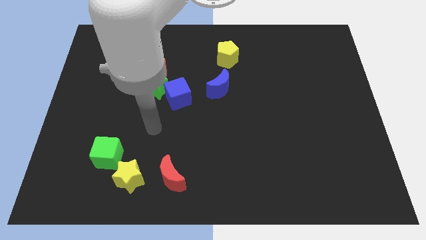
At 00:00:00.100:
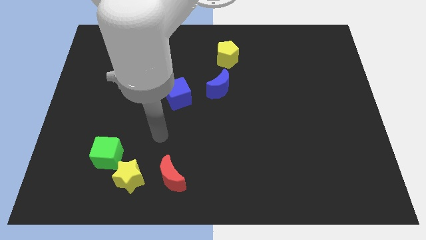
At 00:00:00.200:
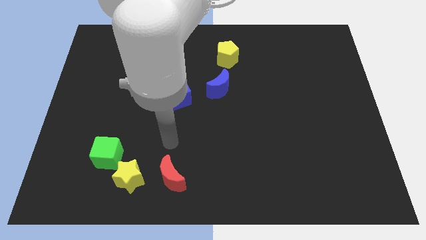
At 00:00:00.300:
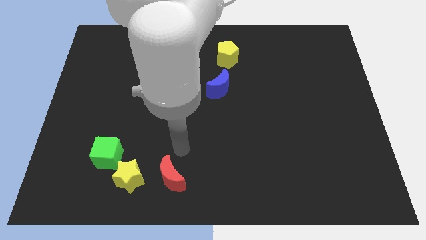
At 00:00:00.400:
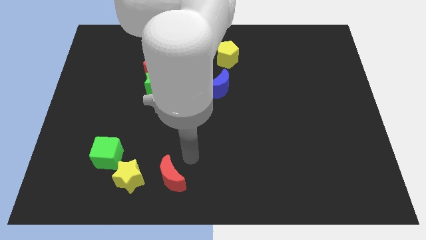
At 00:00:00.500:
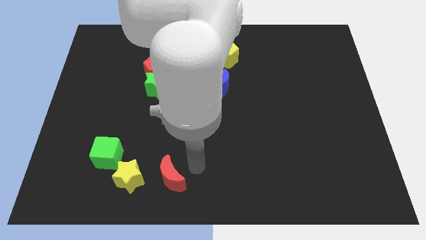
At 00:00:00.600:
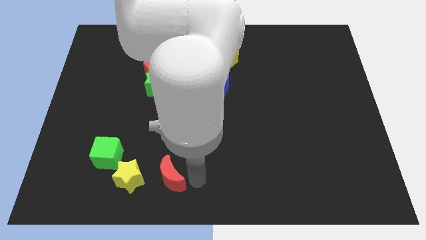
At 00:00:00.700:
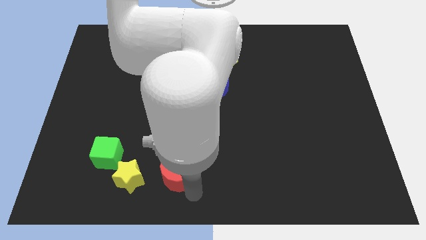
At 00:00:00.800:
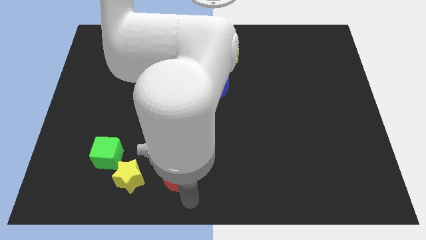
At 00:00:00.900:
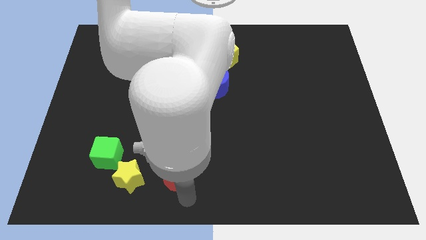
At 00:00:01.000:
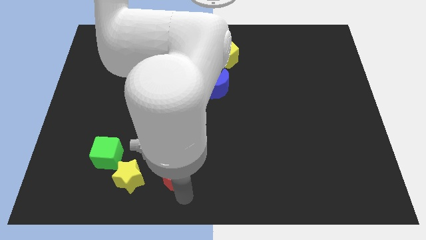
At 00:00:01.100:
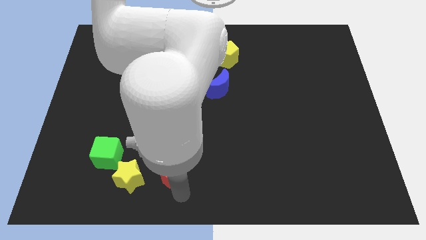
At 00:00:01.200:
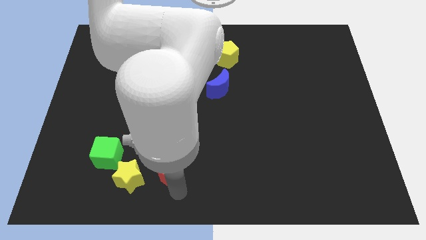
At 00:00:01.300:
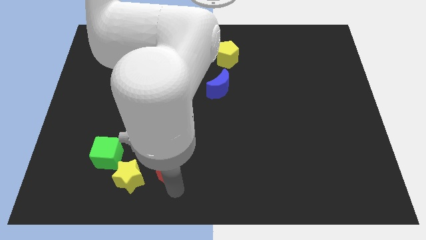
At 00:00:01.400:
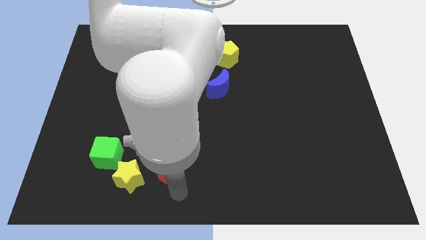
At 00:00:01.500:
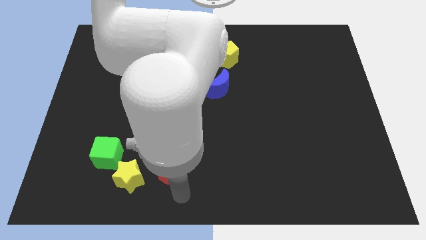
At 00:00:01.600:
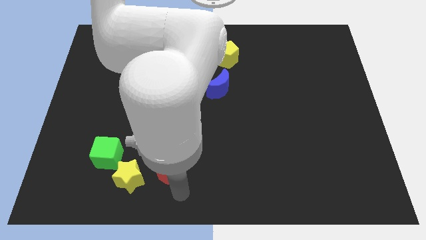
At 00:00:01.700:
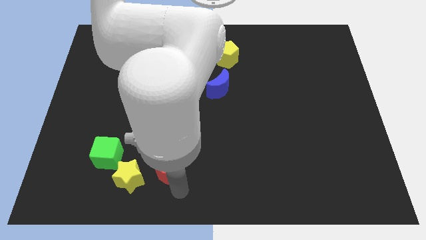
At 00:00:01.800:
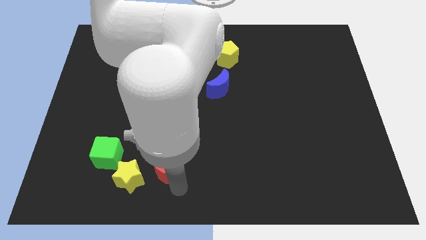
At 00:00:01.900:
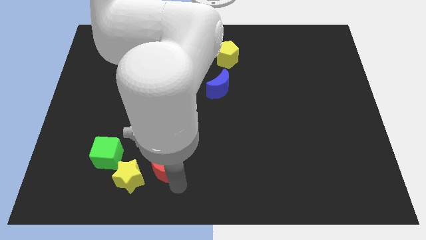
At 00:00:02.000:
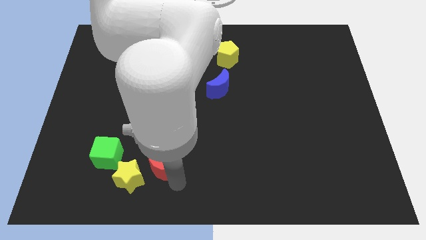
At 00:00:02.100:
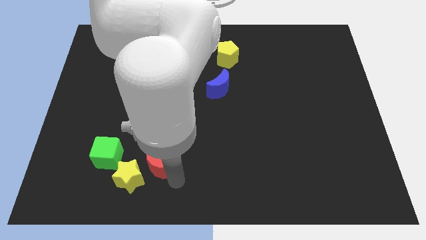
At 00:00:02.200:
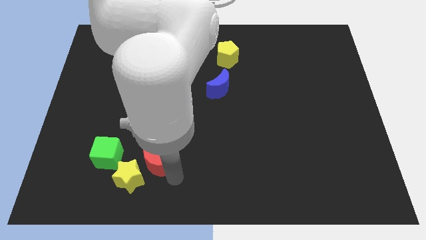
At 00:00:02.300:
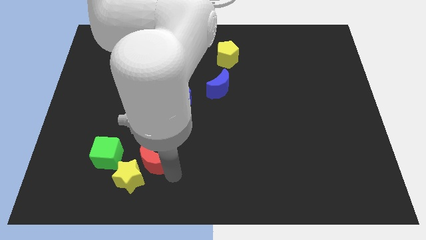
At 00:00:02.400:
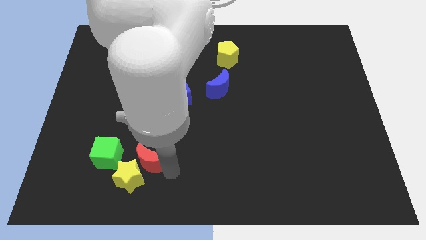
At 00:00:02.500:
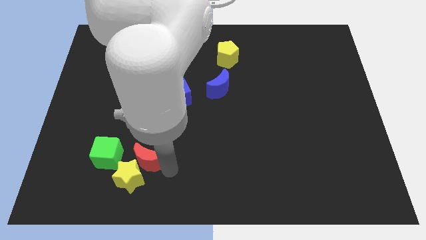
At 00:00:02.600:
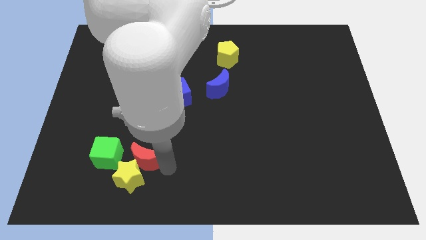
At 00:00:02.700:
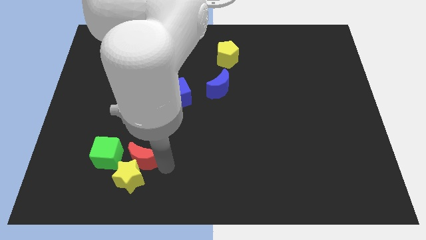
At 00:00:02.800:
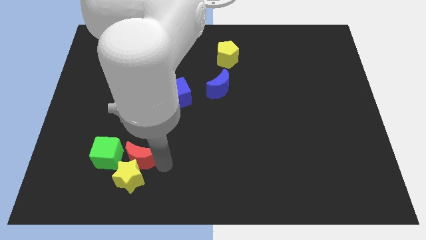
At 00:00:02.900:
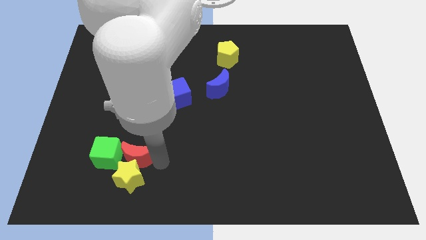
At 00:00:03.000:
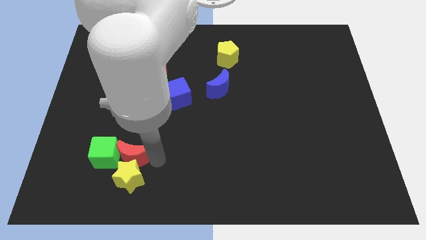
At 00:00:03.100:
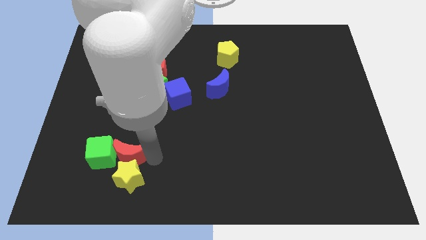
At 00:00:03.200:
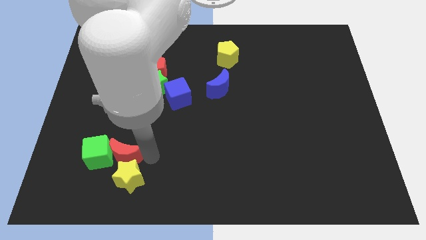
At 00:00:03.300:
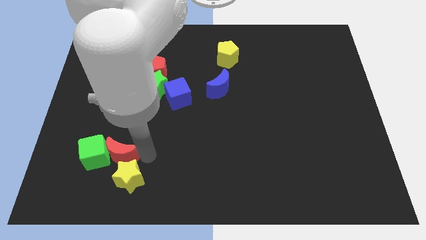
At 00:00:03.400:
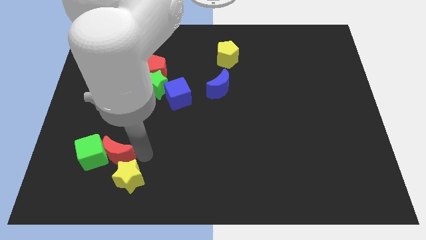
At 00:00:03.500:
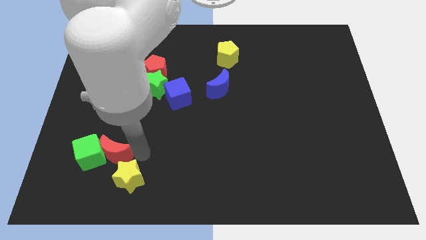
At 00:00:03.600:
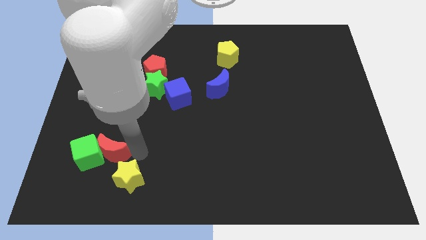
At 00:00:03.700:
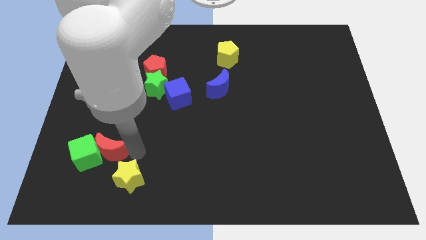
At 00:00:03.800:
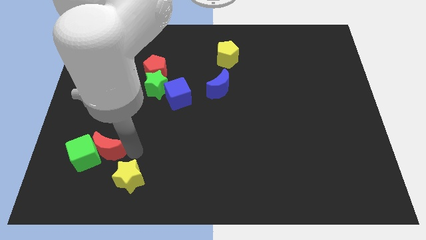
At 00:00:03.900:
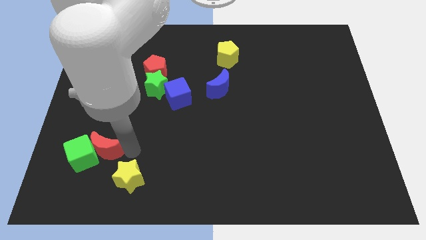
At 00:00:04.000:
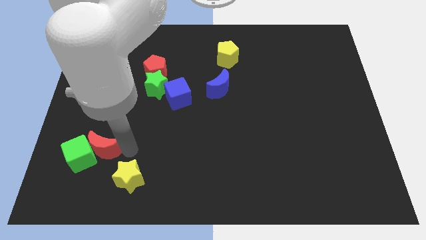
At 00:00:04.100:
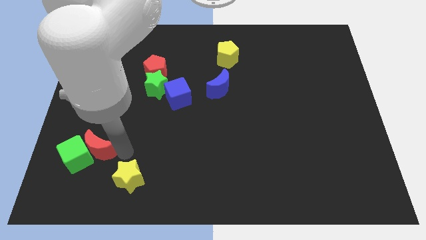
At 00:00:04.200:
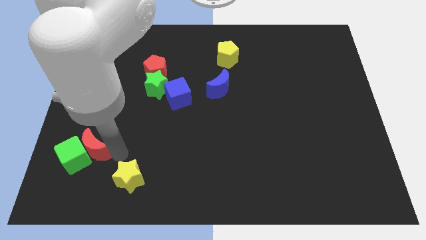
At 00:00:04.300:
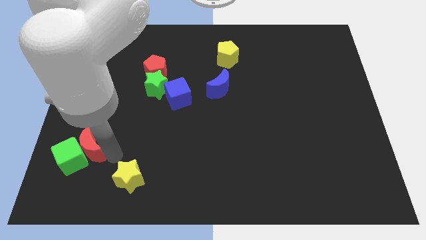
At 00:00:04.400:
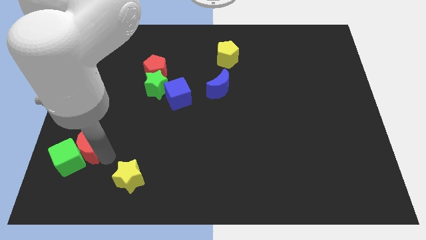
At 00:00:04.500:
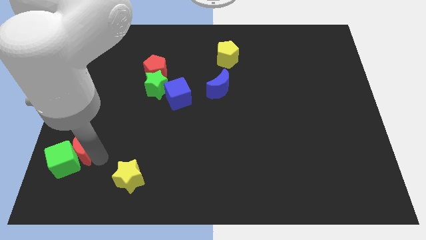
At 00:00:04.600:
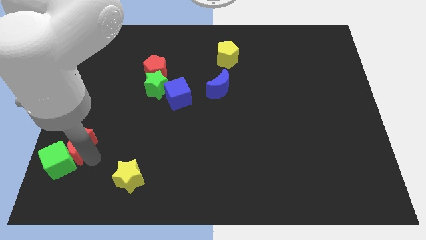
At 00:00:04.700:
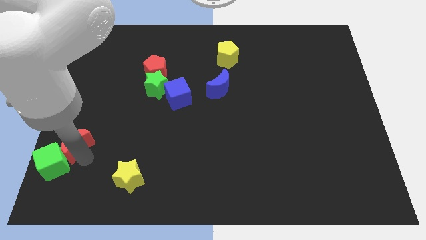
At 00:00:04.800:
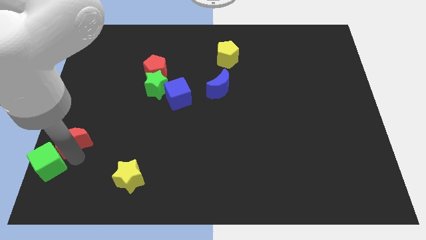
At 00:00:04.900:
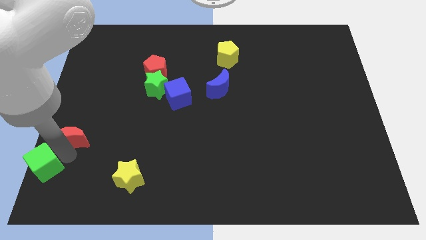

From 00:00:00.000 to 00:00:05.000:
push the red moon to the left side of the board

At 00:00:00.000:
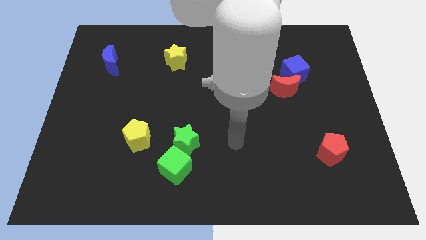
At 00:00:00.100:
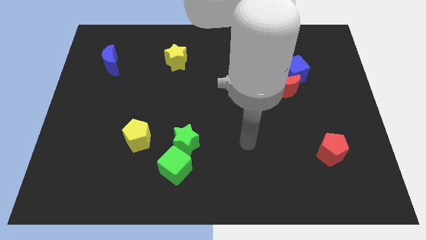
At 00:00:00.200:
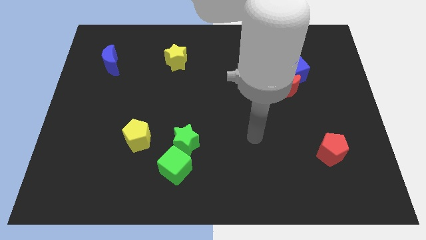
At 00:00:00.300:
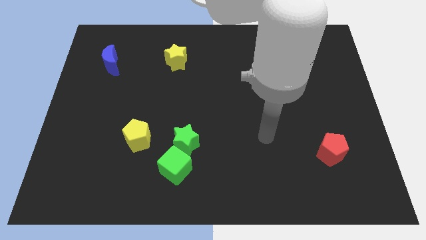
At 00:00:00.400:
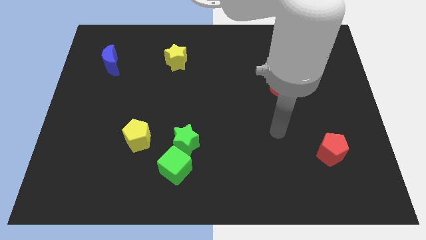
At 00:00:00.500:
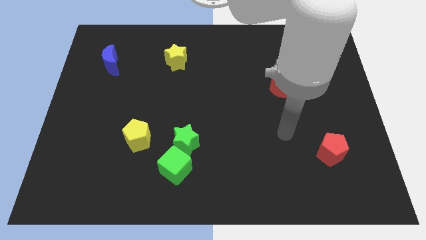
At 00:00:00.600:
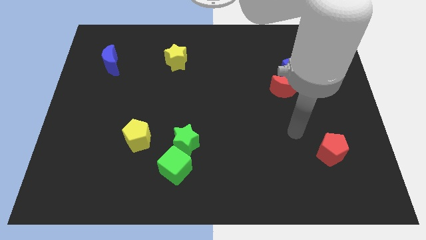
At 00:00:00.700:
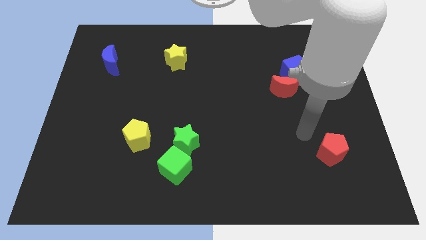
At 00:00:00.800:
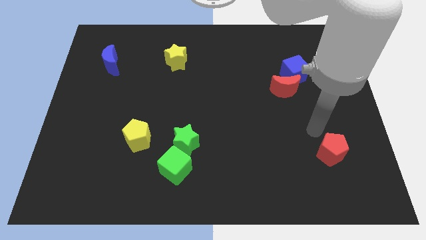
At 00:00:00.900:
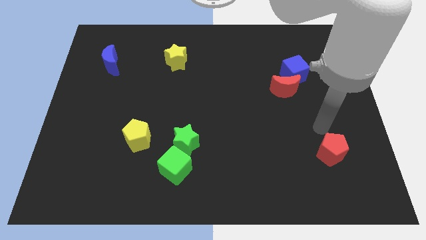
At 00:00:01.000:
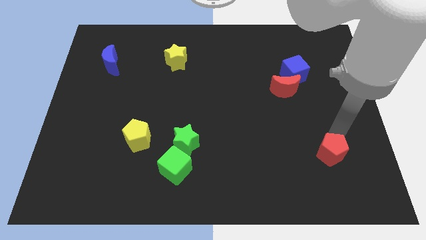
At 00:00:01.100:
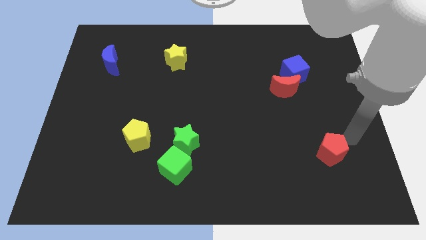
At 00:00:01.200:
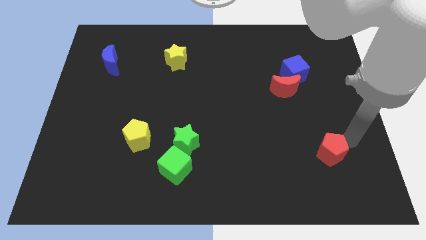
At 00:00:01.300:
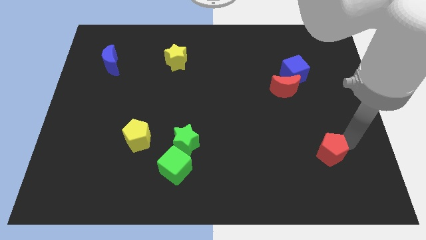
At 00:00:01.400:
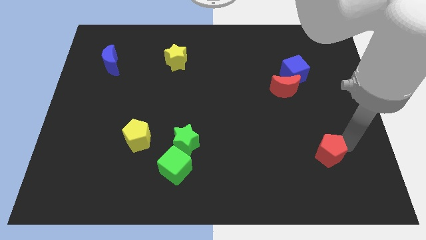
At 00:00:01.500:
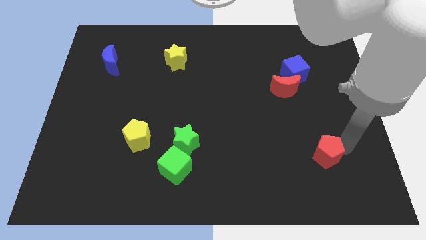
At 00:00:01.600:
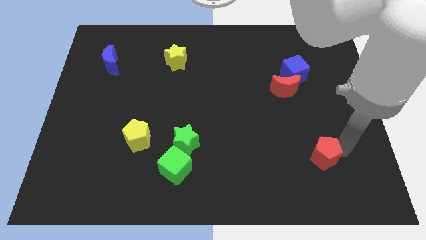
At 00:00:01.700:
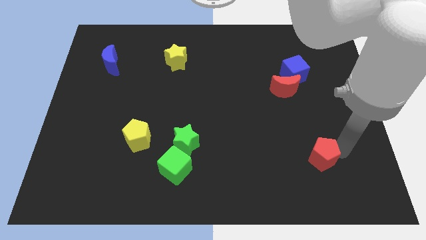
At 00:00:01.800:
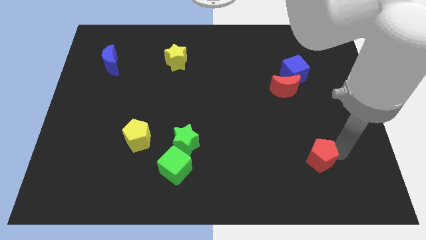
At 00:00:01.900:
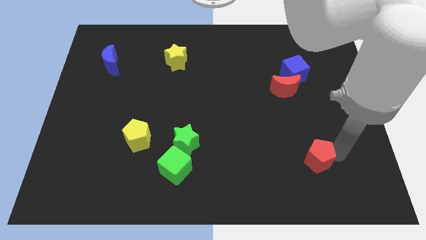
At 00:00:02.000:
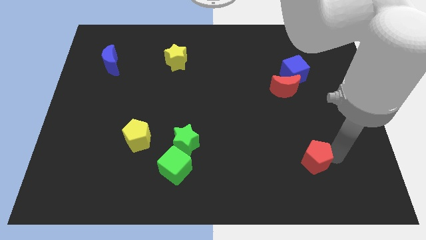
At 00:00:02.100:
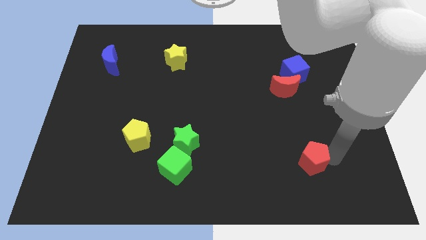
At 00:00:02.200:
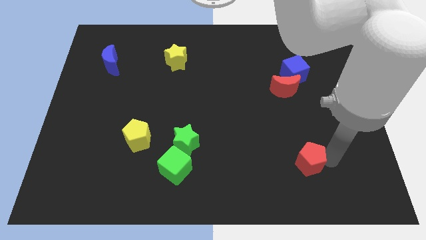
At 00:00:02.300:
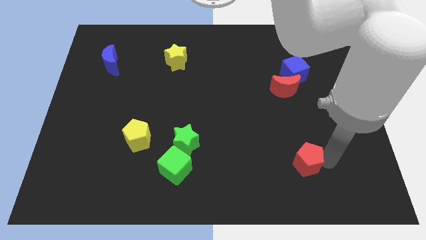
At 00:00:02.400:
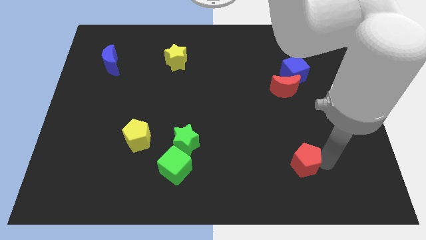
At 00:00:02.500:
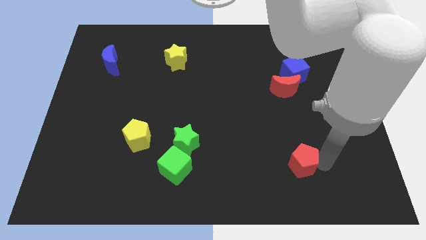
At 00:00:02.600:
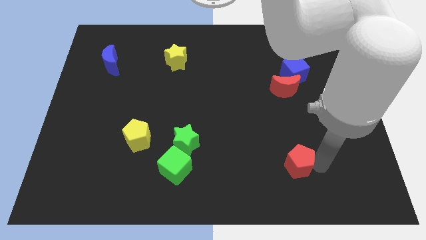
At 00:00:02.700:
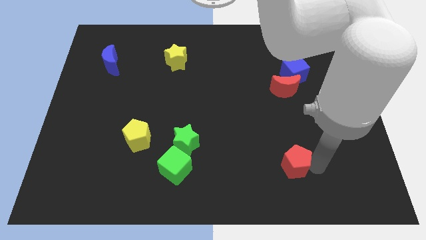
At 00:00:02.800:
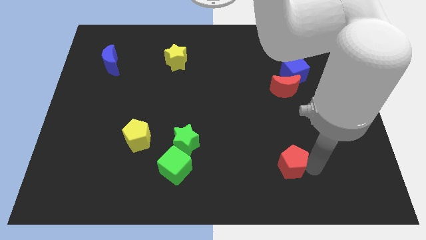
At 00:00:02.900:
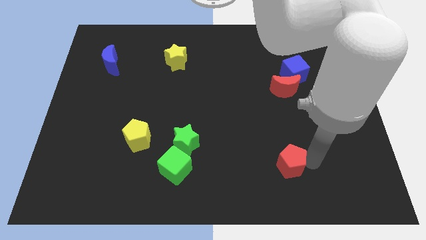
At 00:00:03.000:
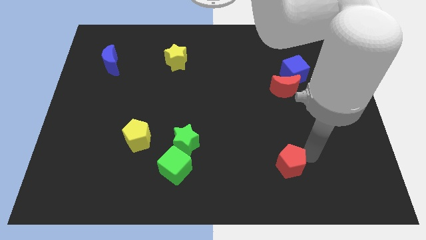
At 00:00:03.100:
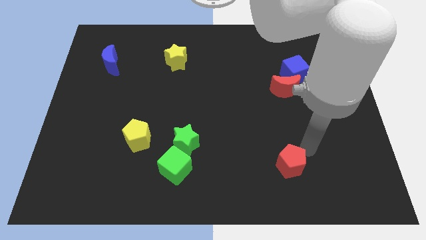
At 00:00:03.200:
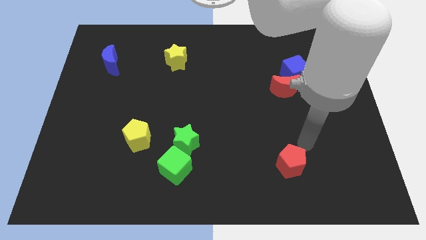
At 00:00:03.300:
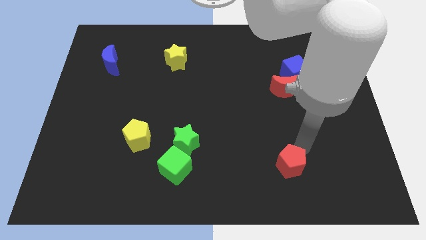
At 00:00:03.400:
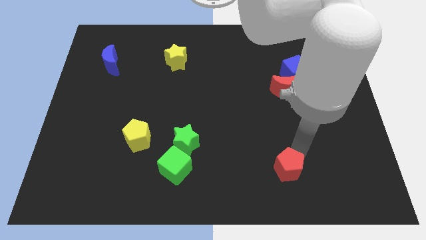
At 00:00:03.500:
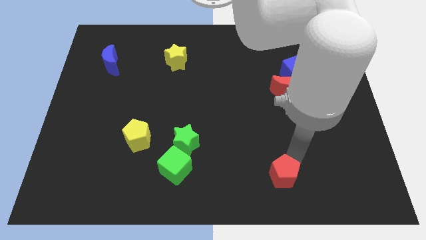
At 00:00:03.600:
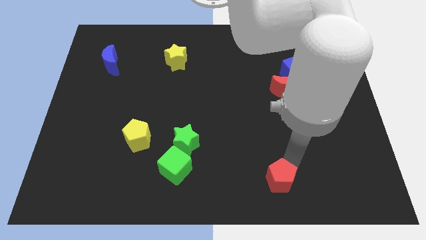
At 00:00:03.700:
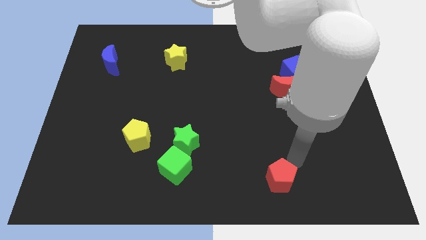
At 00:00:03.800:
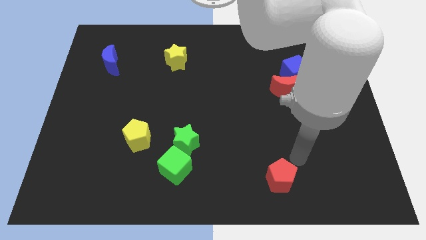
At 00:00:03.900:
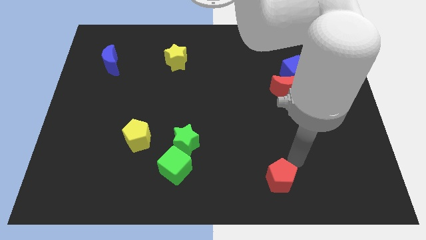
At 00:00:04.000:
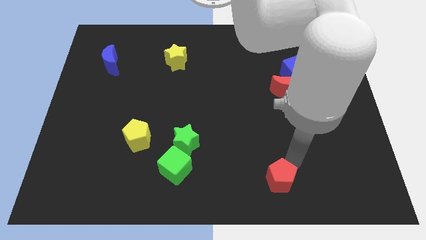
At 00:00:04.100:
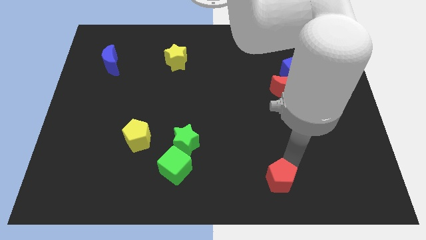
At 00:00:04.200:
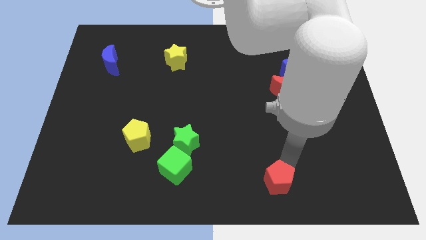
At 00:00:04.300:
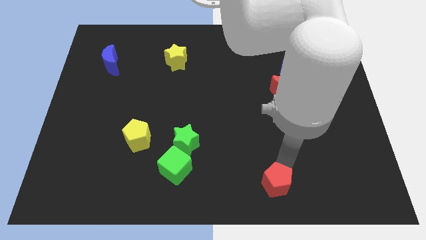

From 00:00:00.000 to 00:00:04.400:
move the red pentagon to the bottom side
